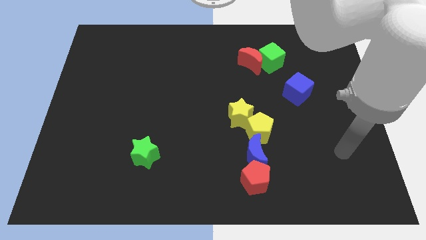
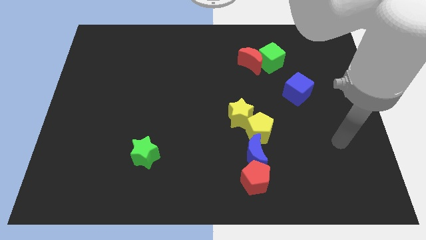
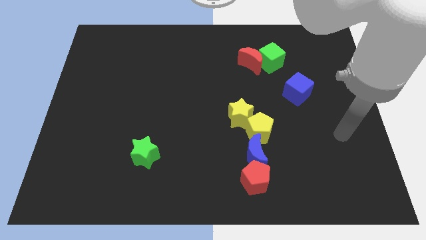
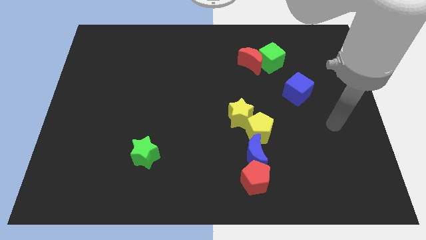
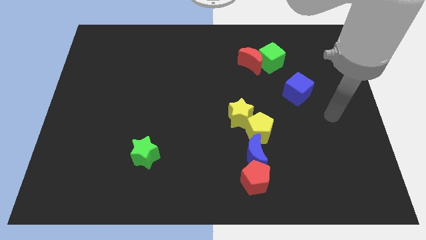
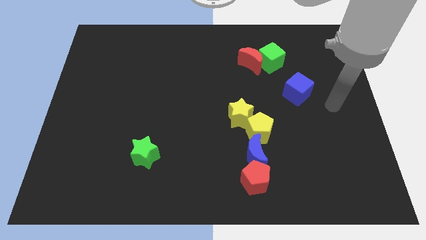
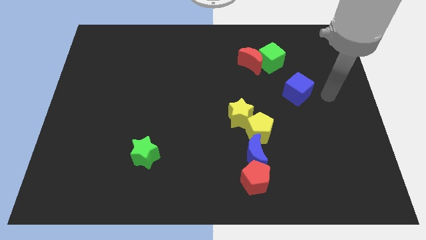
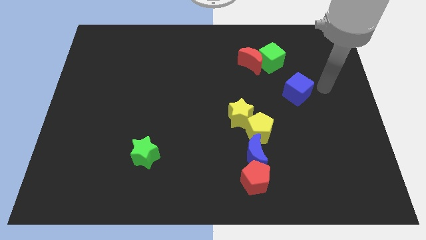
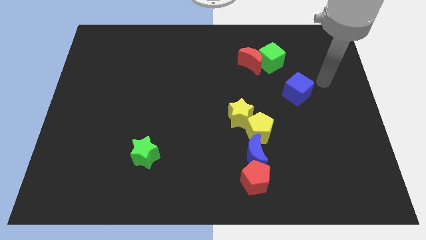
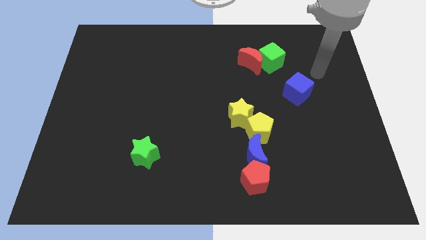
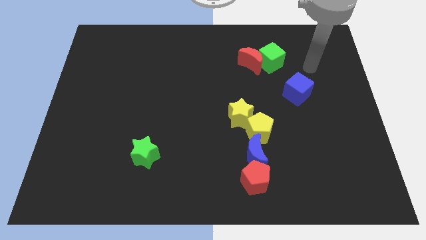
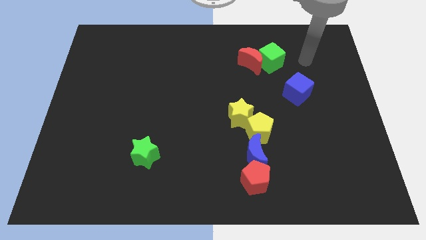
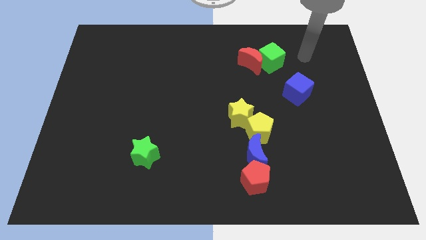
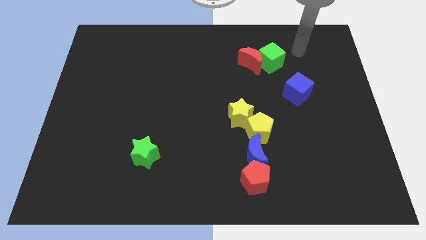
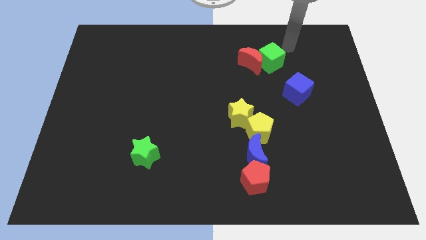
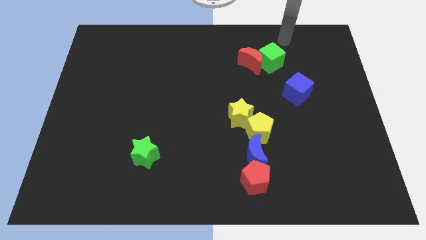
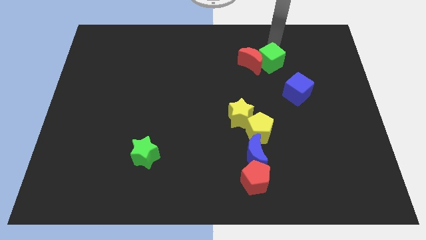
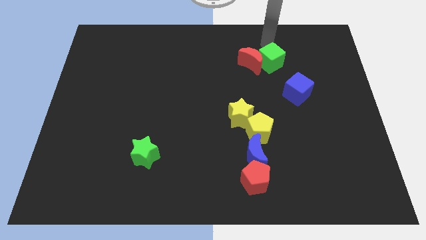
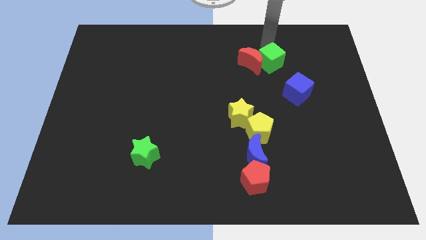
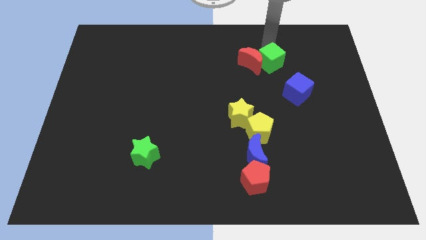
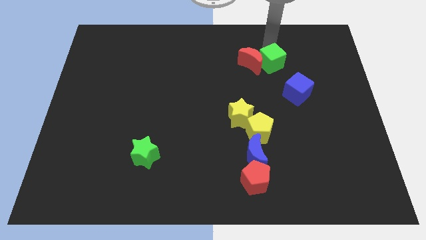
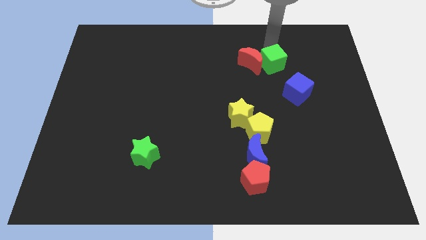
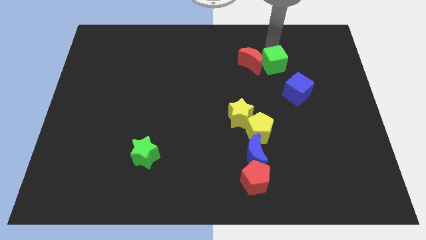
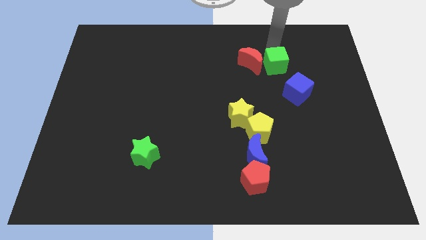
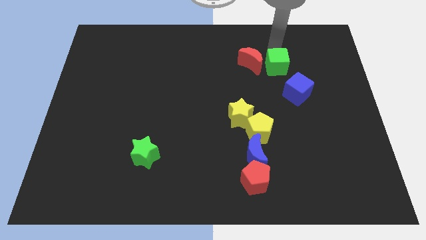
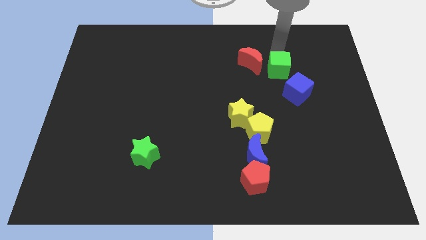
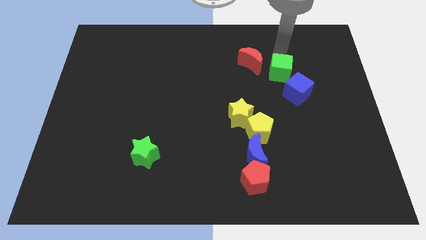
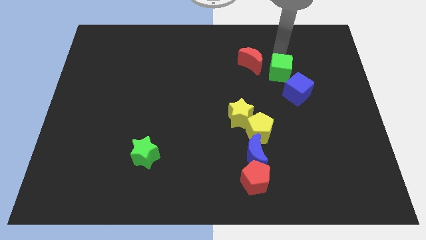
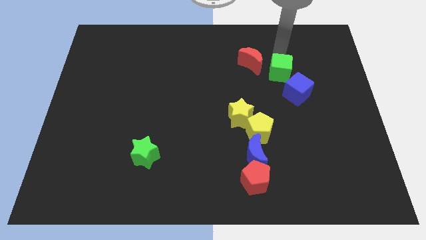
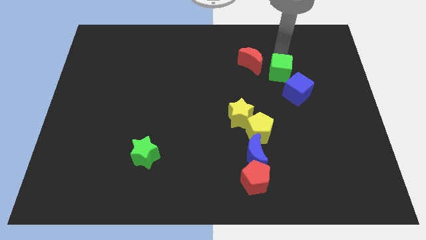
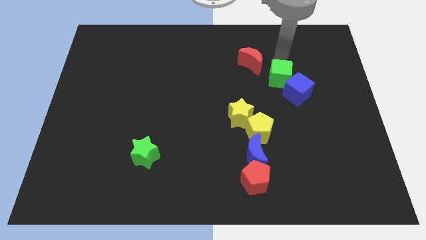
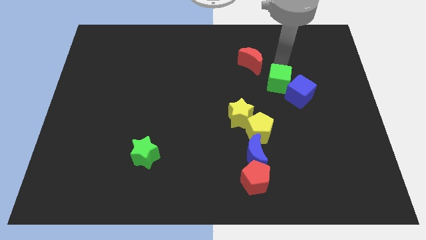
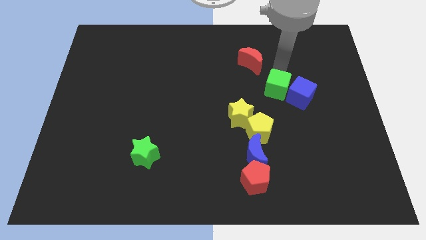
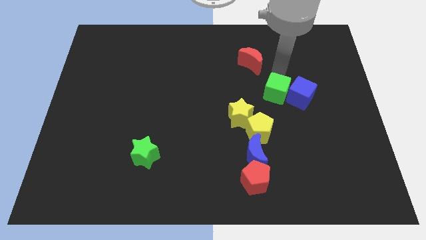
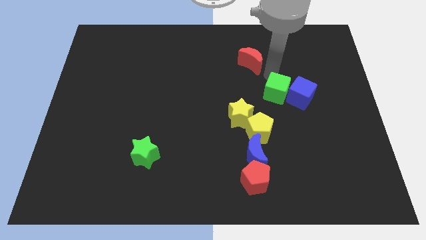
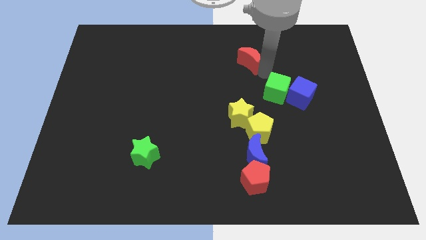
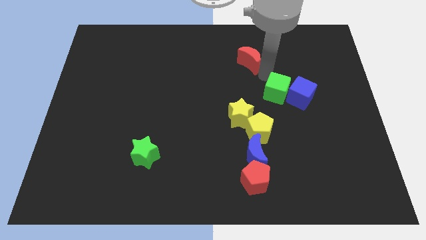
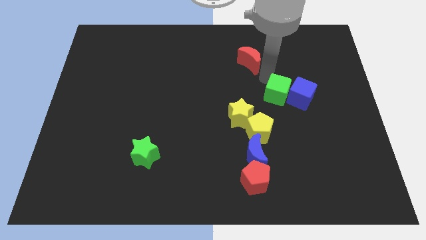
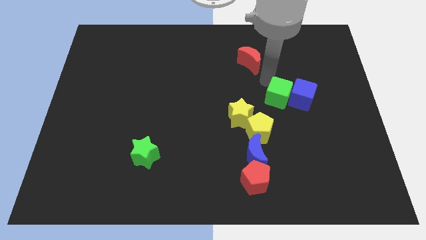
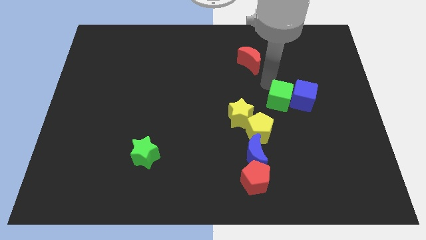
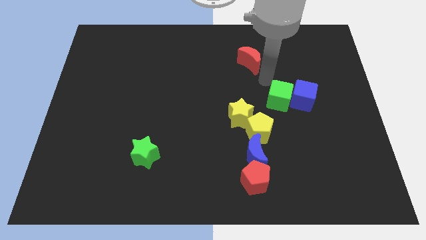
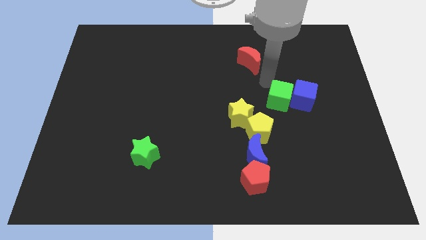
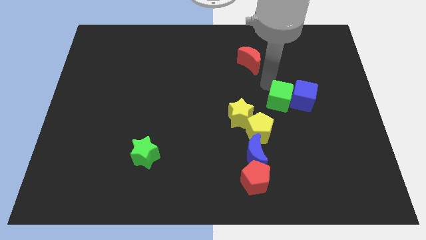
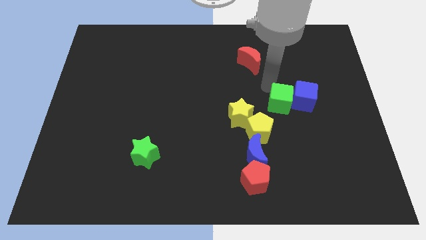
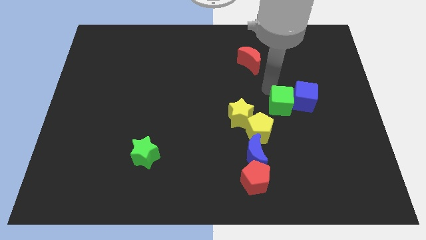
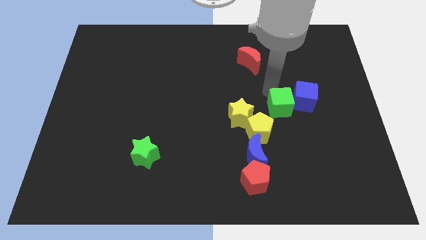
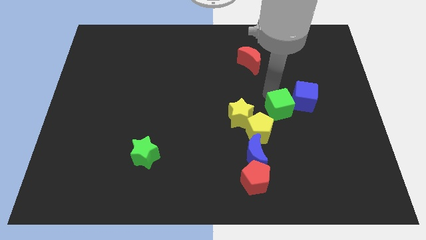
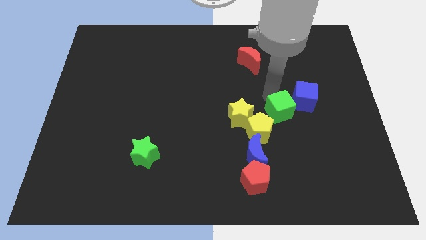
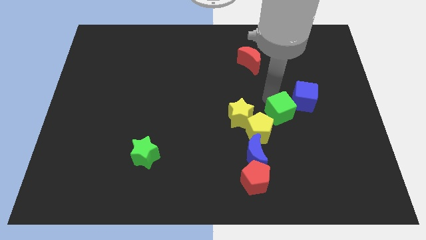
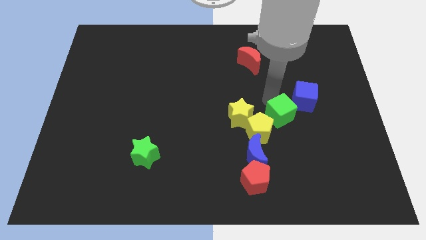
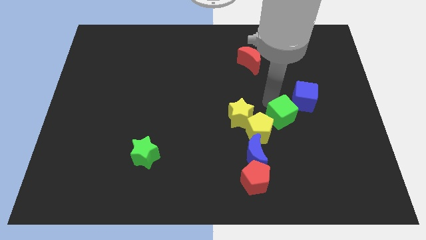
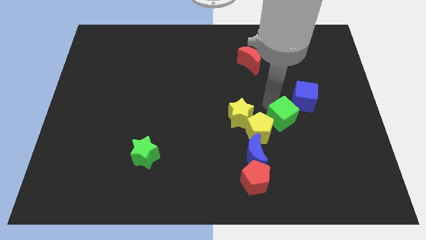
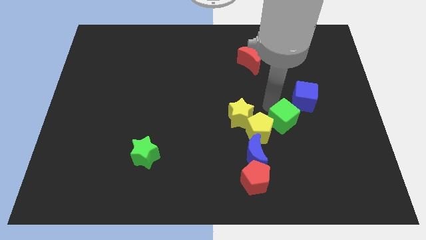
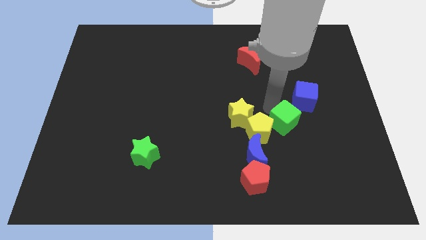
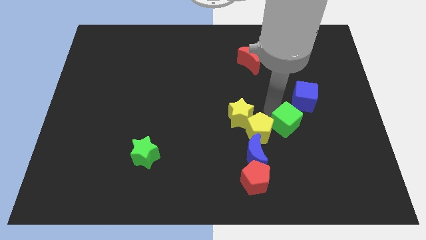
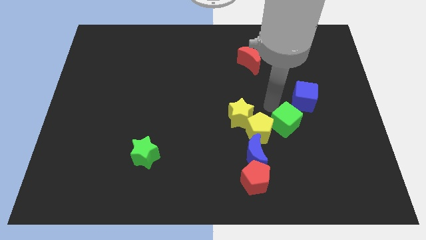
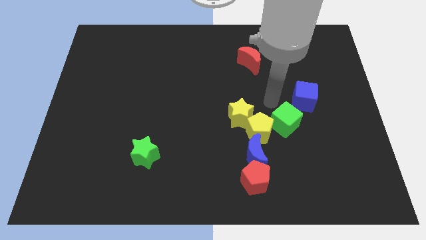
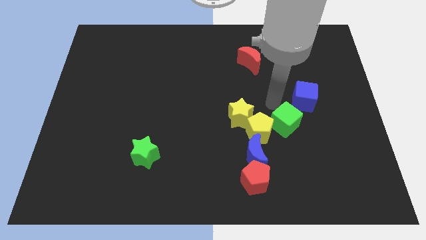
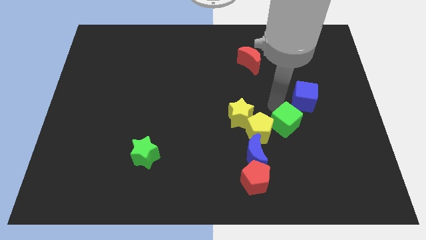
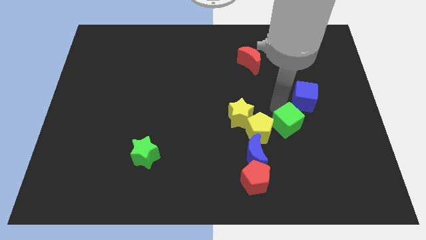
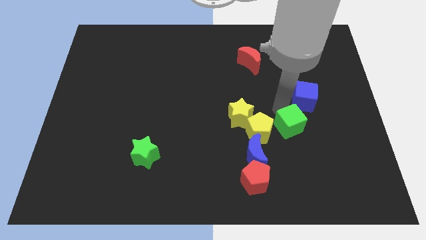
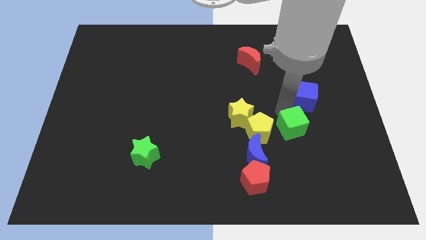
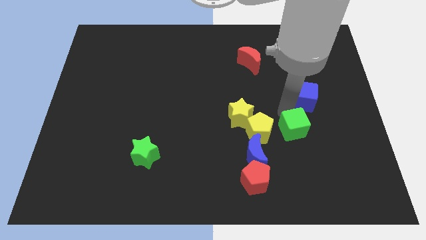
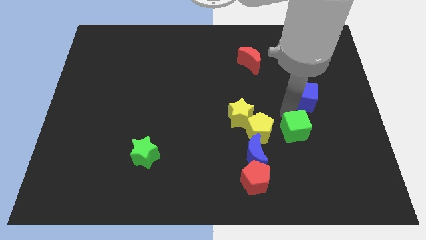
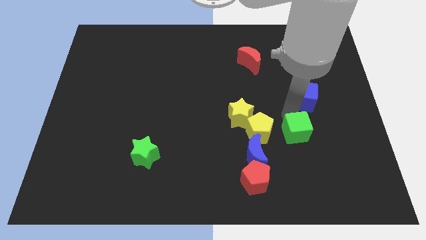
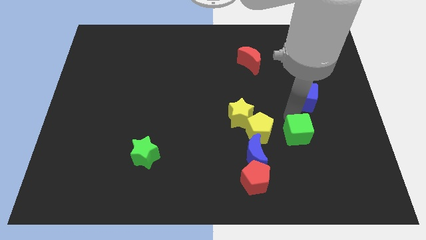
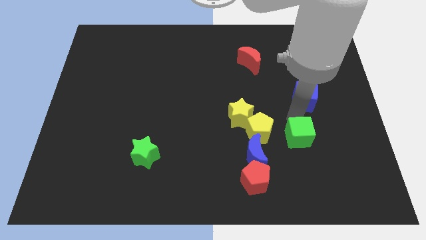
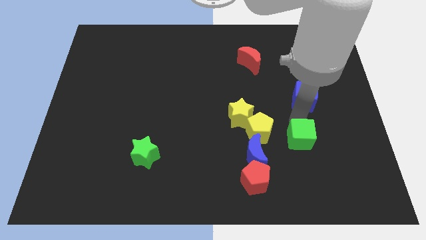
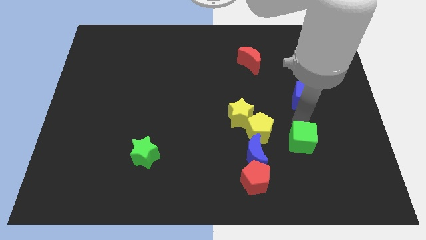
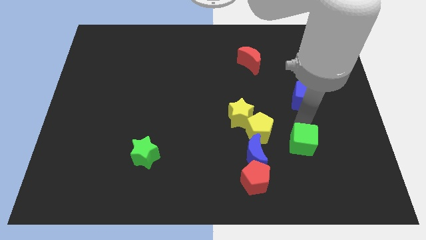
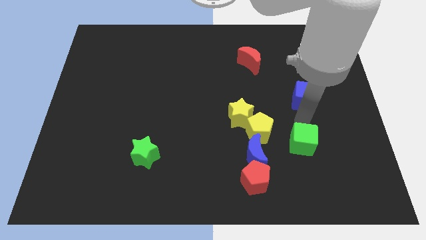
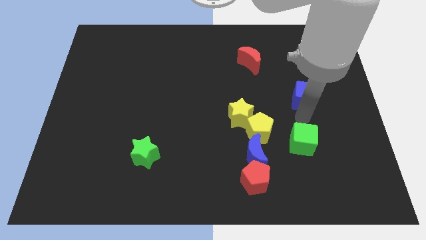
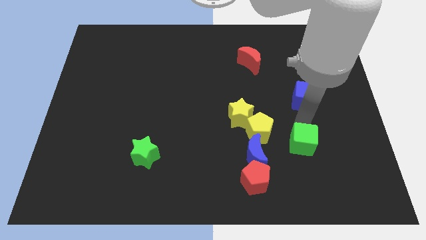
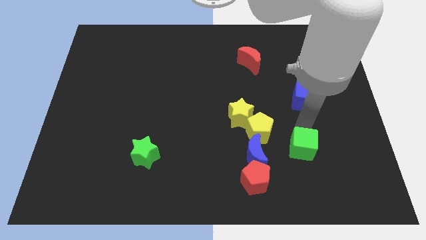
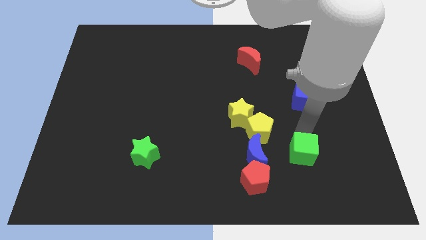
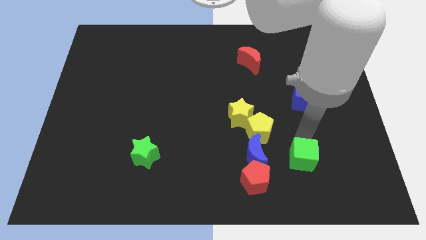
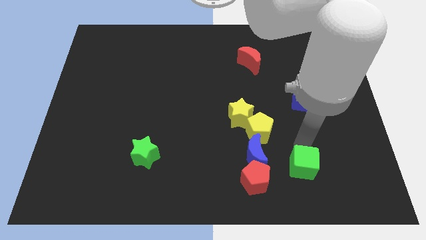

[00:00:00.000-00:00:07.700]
put the green cube to the right of the red pentagon
